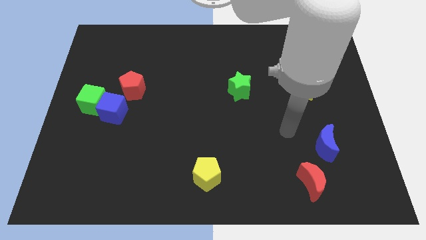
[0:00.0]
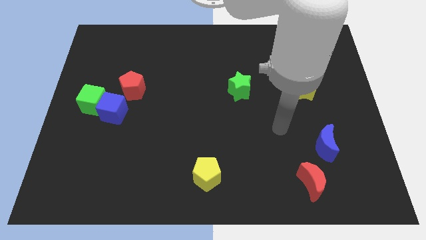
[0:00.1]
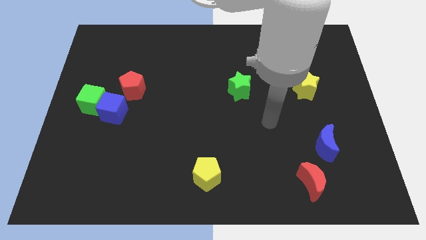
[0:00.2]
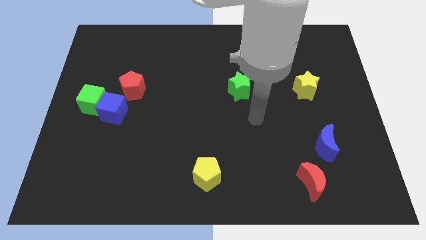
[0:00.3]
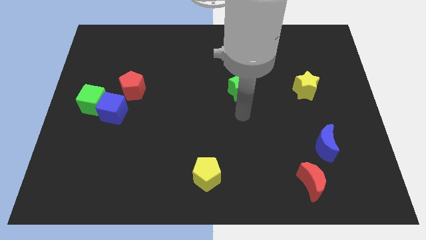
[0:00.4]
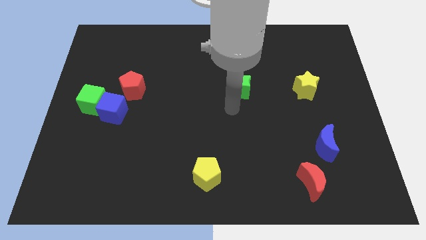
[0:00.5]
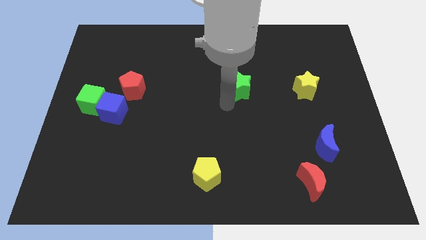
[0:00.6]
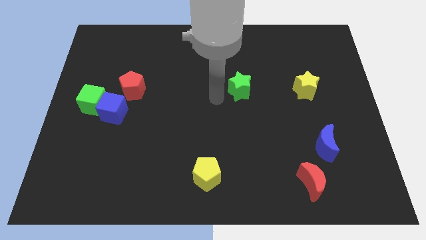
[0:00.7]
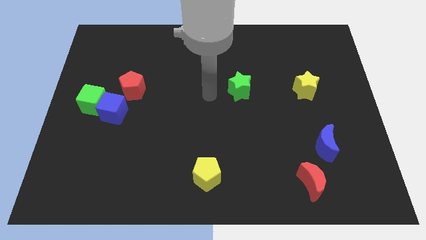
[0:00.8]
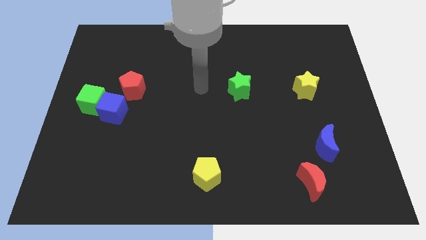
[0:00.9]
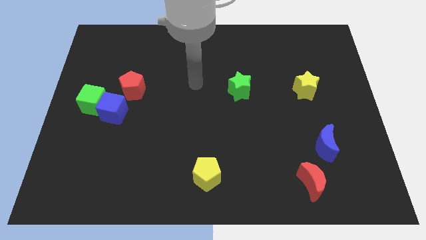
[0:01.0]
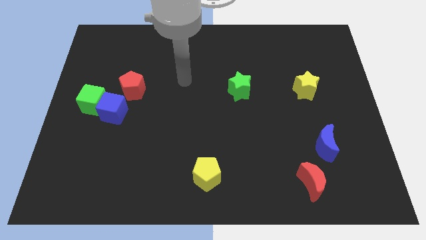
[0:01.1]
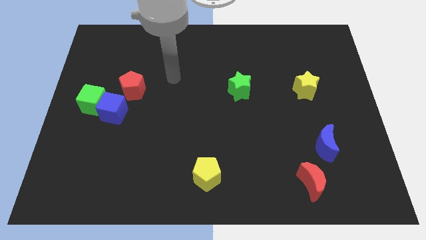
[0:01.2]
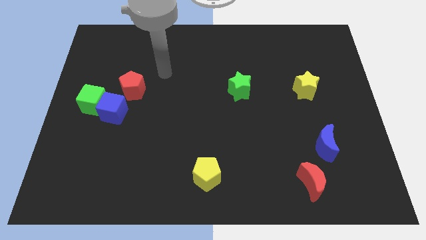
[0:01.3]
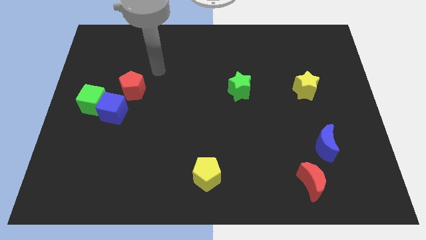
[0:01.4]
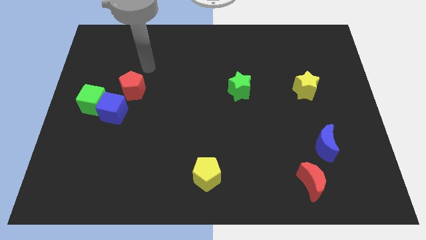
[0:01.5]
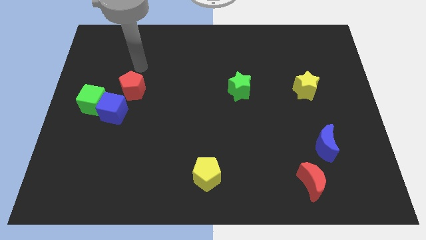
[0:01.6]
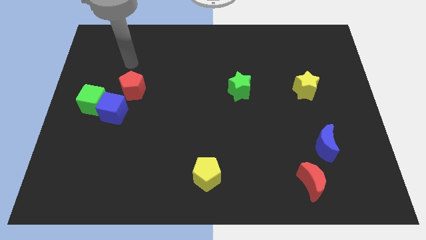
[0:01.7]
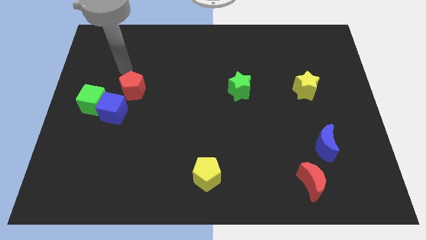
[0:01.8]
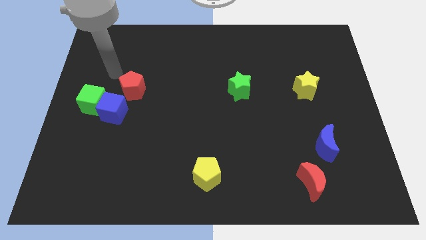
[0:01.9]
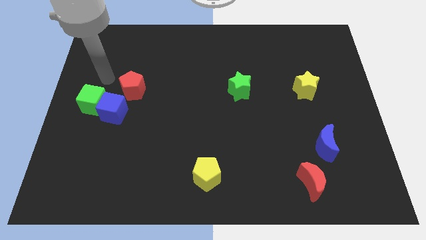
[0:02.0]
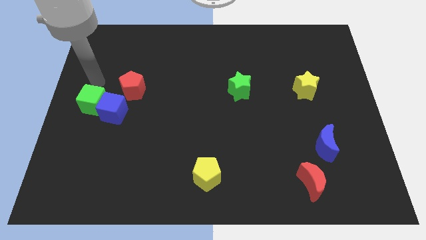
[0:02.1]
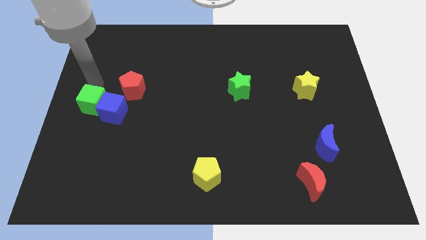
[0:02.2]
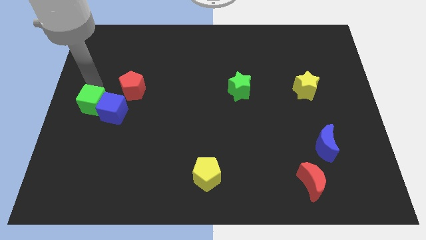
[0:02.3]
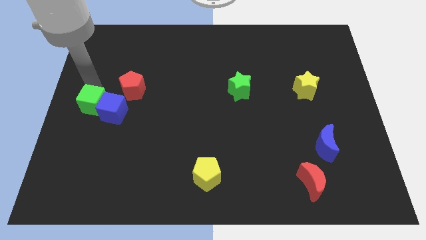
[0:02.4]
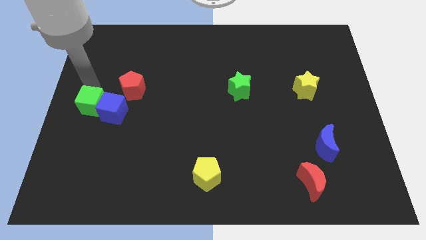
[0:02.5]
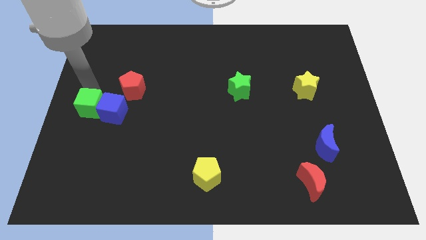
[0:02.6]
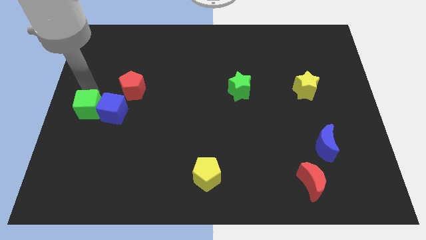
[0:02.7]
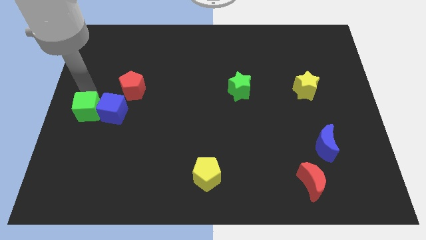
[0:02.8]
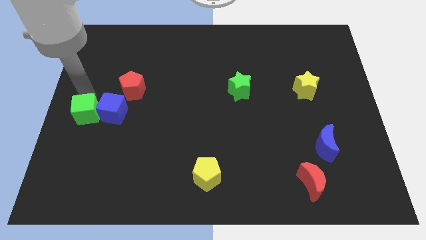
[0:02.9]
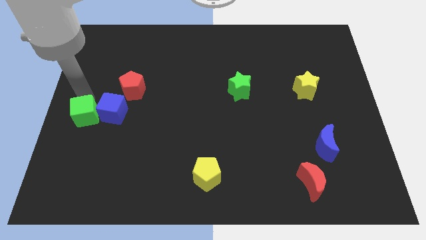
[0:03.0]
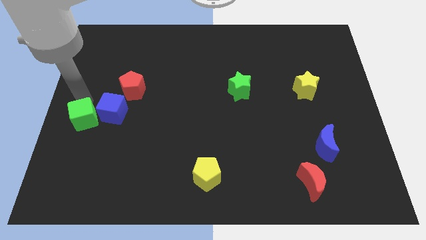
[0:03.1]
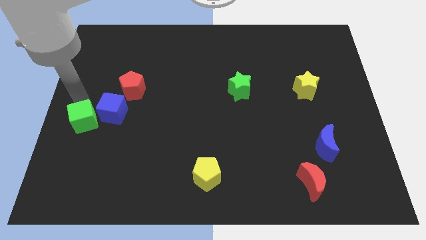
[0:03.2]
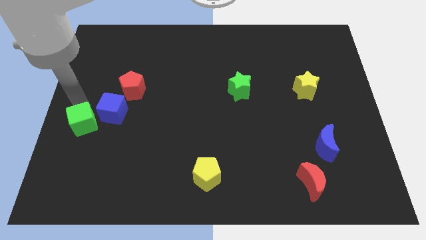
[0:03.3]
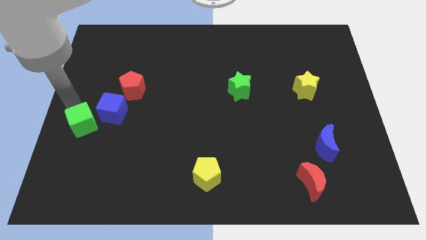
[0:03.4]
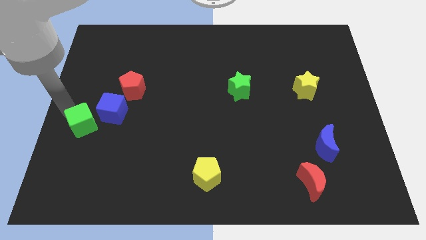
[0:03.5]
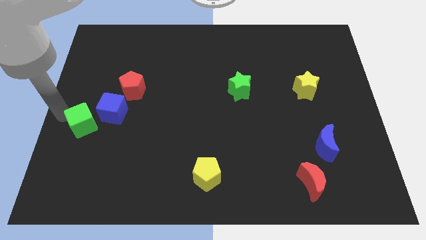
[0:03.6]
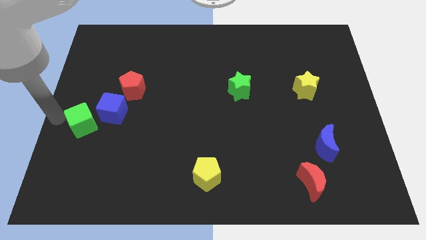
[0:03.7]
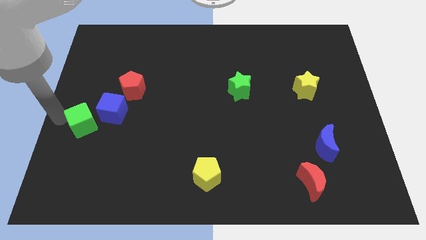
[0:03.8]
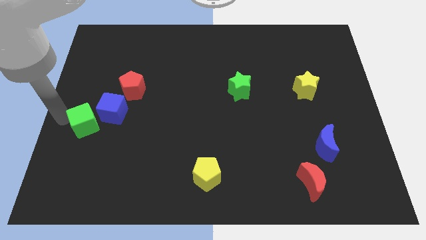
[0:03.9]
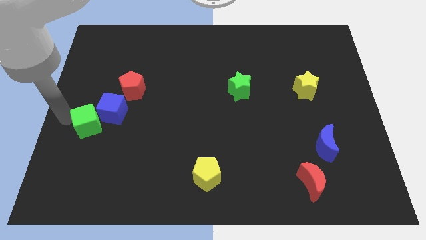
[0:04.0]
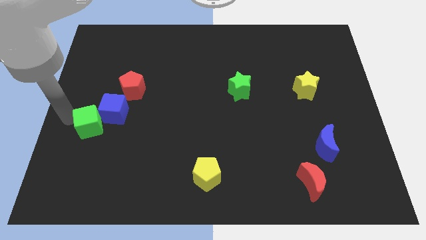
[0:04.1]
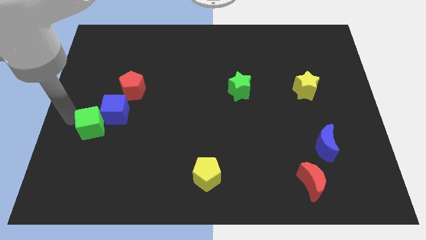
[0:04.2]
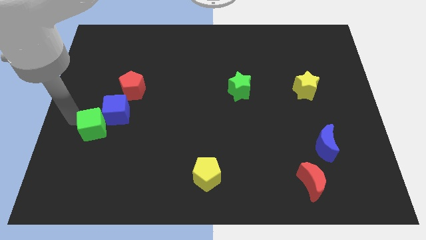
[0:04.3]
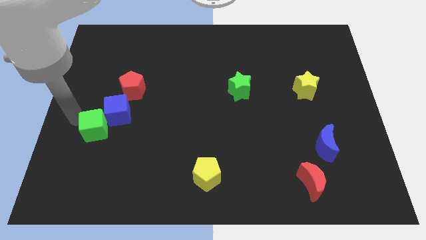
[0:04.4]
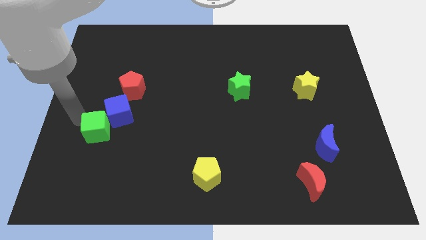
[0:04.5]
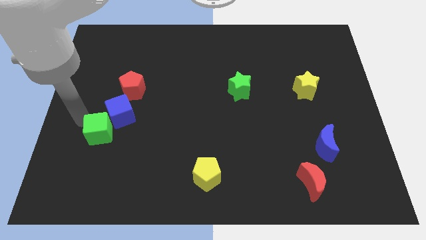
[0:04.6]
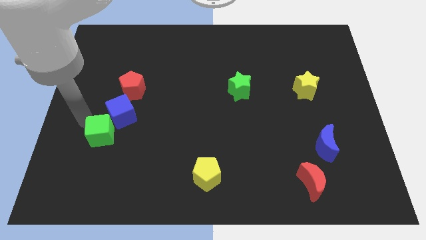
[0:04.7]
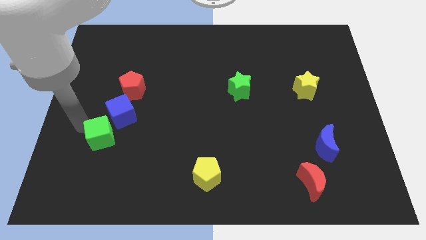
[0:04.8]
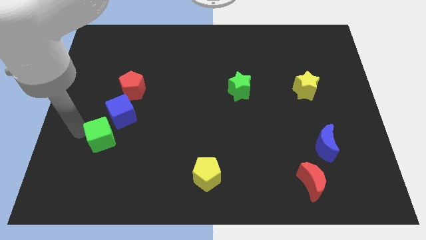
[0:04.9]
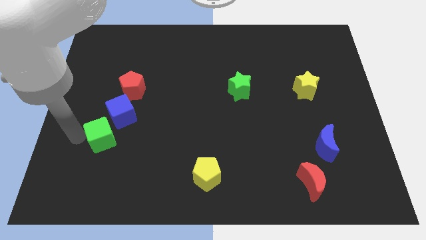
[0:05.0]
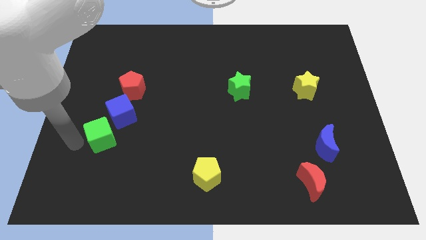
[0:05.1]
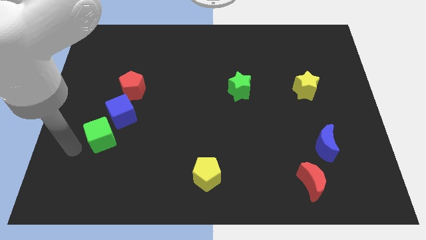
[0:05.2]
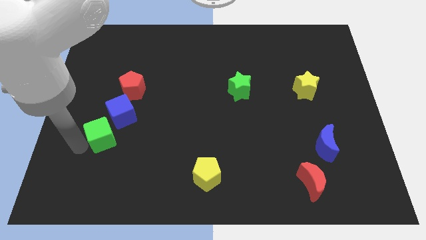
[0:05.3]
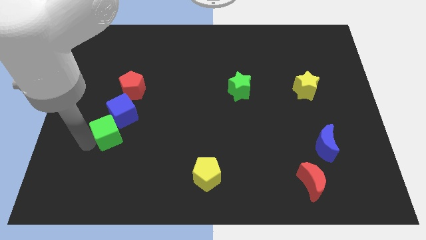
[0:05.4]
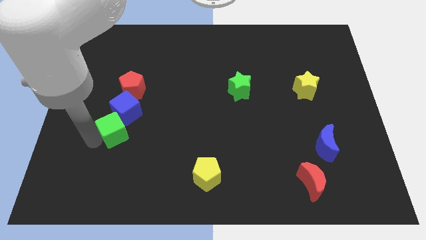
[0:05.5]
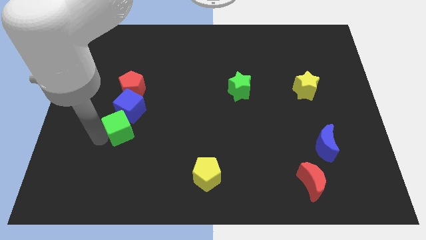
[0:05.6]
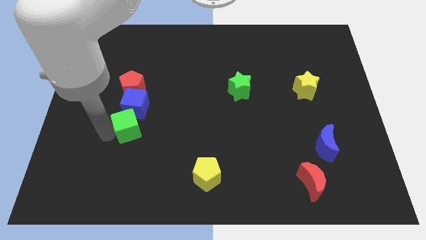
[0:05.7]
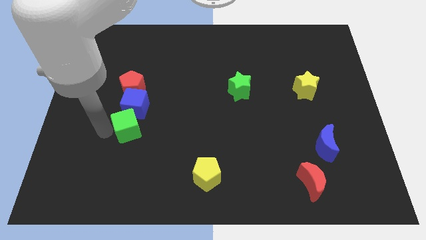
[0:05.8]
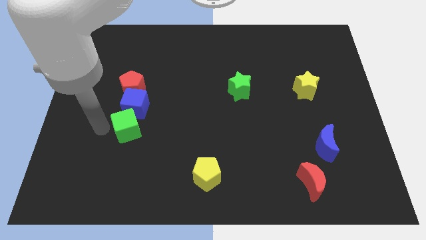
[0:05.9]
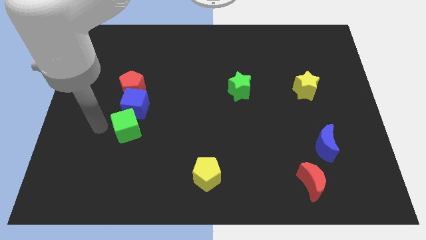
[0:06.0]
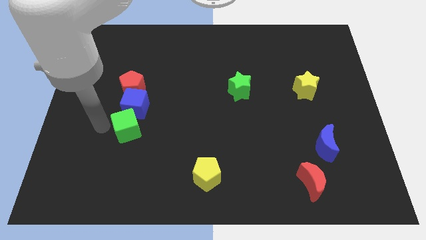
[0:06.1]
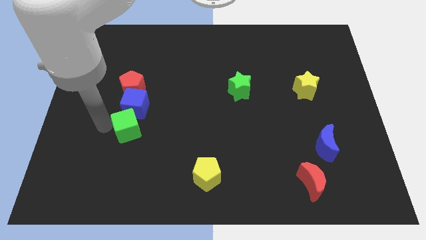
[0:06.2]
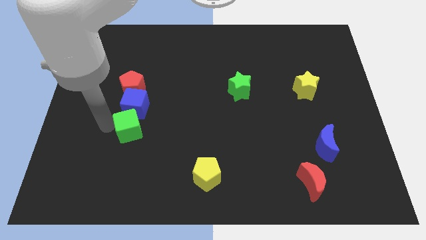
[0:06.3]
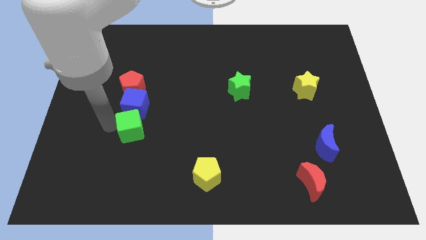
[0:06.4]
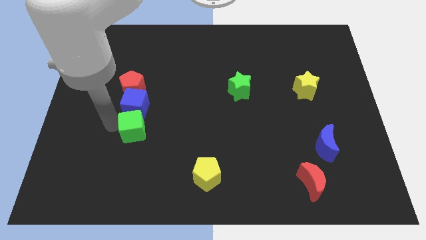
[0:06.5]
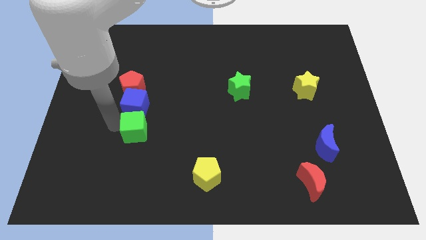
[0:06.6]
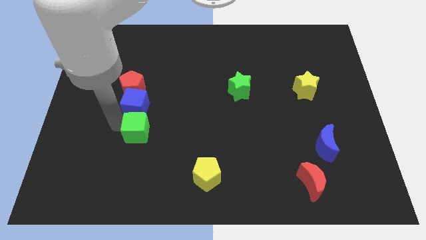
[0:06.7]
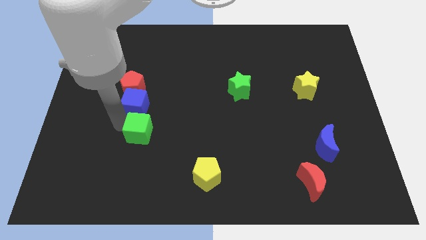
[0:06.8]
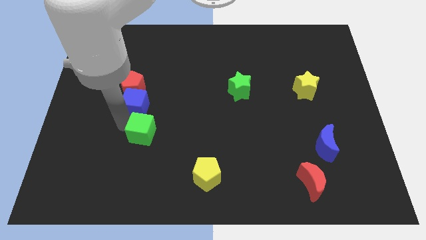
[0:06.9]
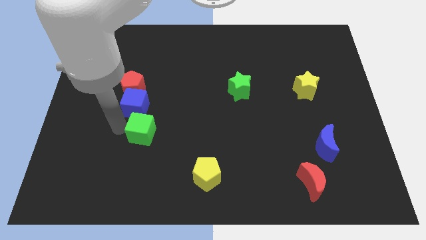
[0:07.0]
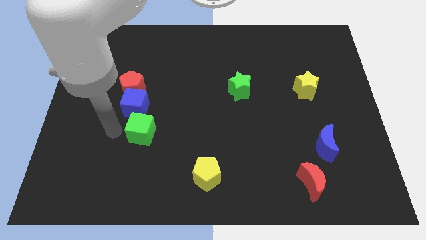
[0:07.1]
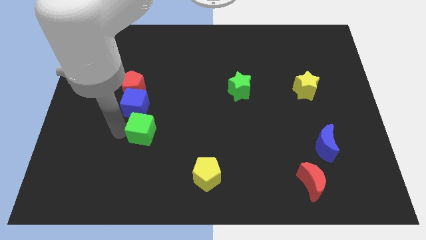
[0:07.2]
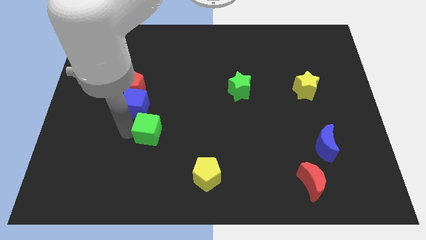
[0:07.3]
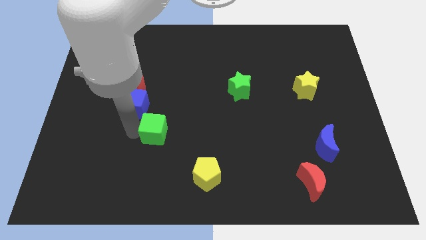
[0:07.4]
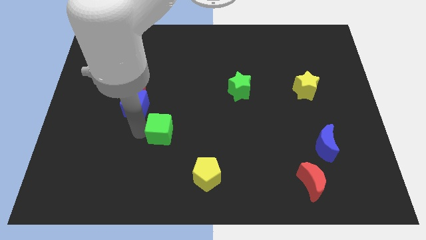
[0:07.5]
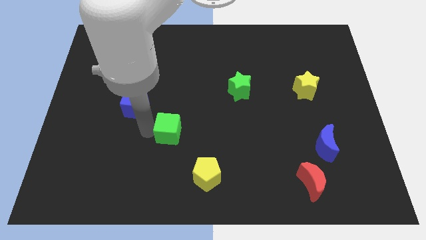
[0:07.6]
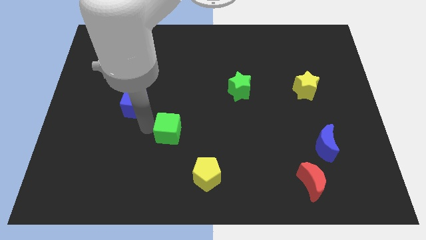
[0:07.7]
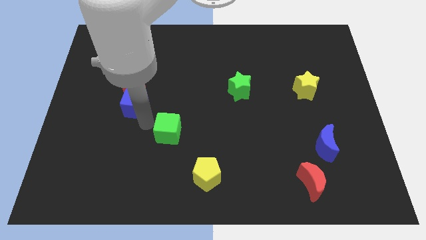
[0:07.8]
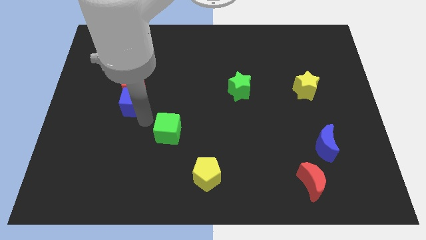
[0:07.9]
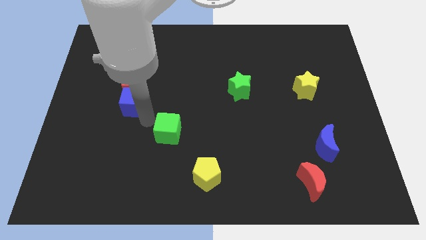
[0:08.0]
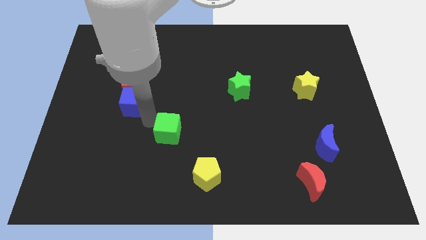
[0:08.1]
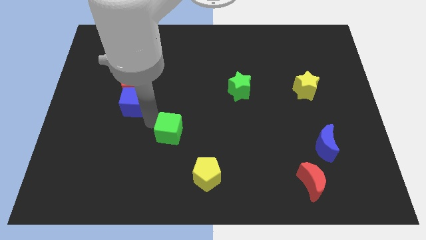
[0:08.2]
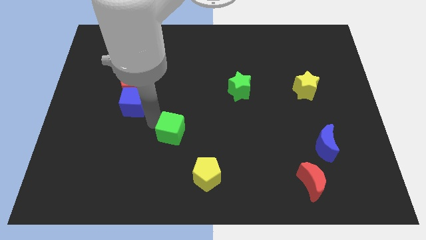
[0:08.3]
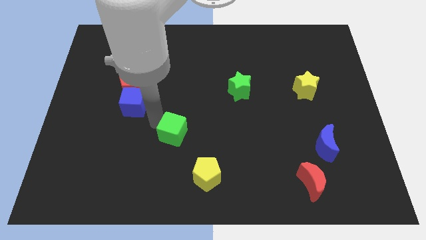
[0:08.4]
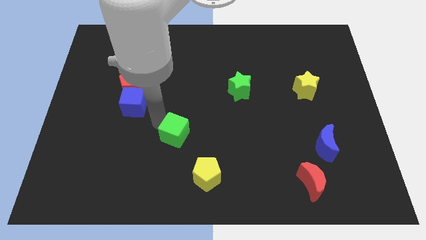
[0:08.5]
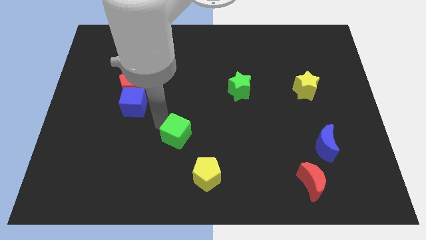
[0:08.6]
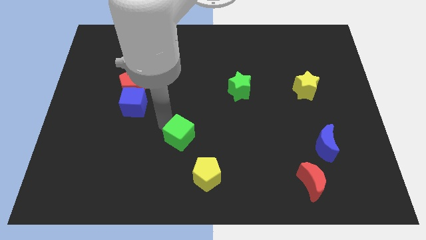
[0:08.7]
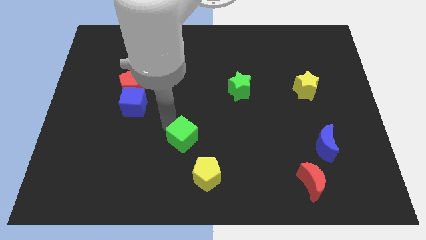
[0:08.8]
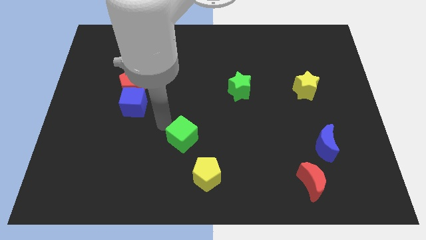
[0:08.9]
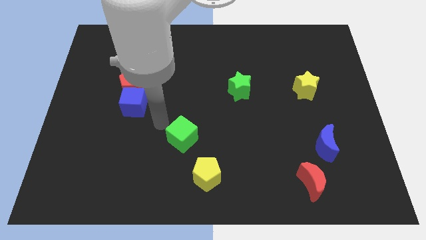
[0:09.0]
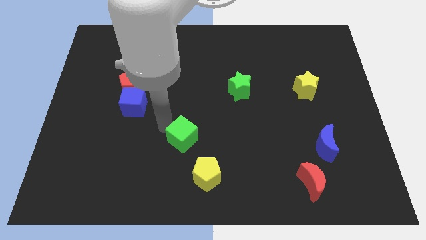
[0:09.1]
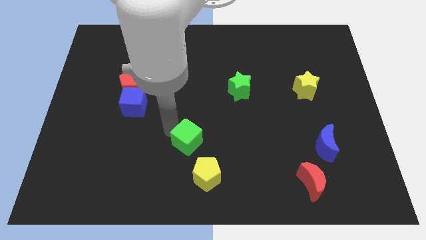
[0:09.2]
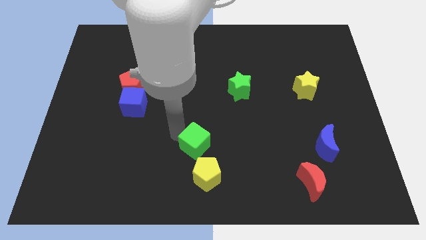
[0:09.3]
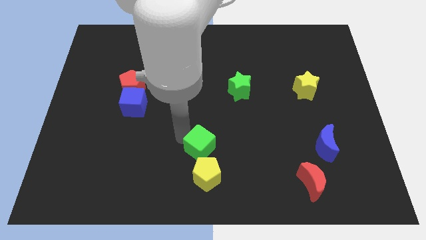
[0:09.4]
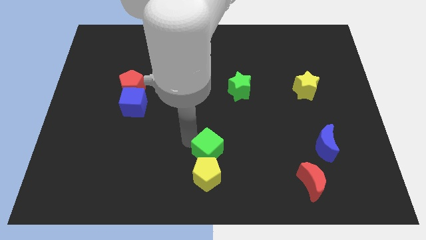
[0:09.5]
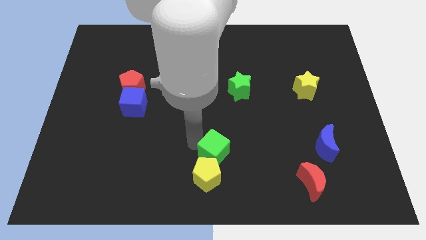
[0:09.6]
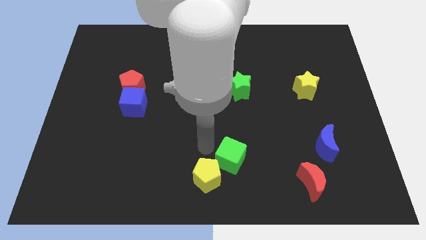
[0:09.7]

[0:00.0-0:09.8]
put the green cube to the right side of the yellow pentagon
